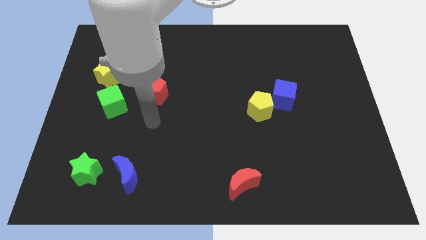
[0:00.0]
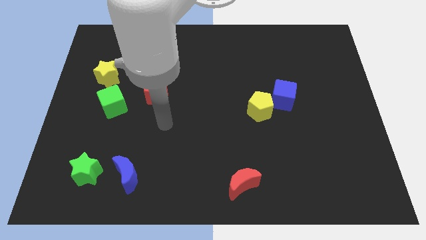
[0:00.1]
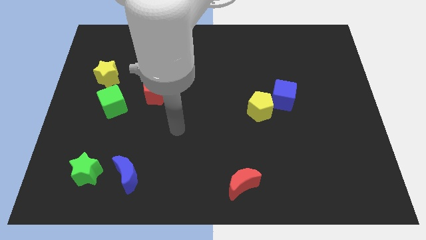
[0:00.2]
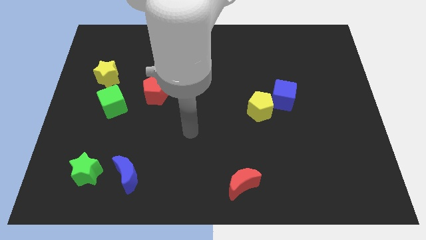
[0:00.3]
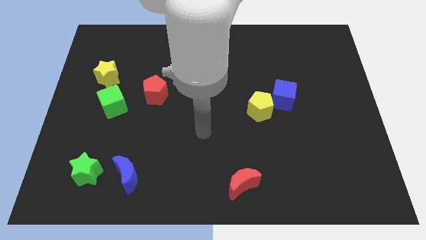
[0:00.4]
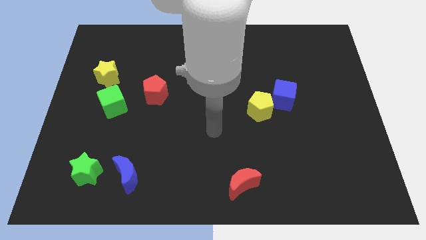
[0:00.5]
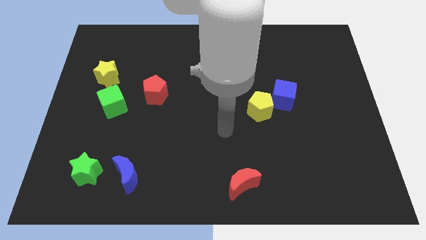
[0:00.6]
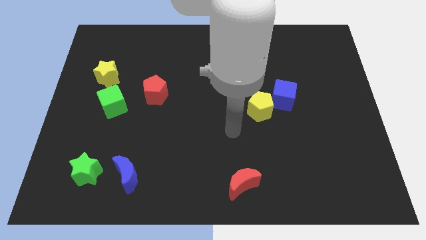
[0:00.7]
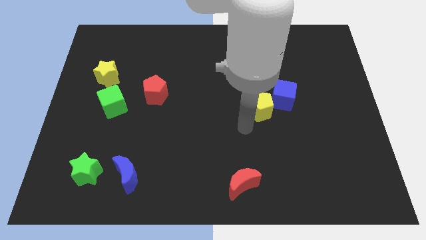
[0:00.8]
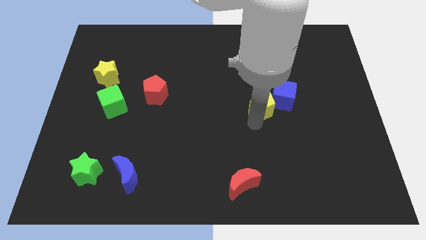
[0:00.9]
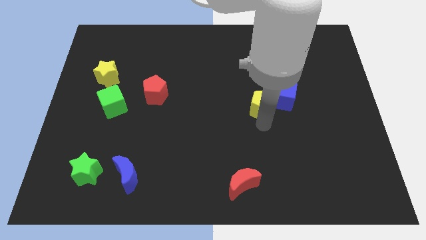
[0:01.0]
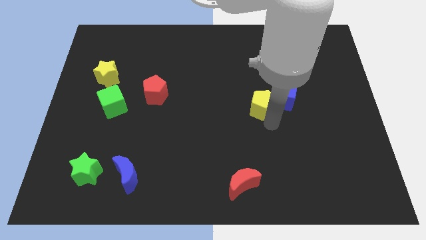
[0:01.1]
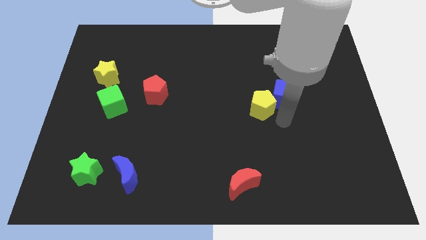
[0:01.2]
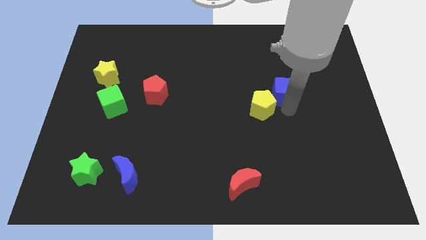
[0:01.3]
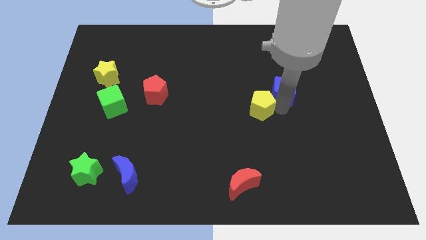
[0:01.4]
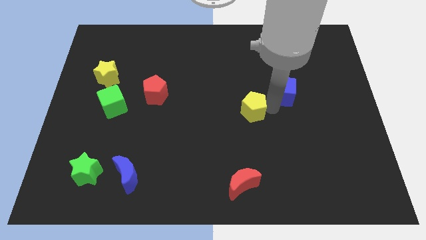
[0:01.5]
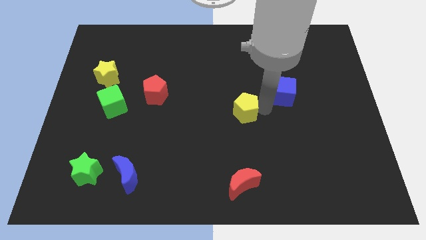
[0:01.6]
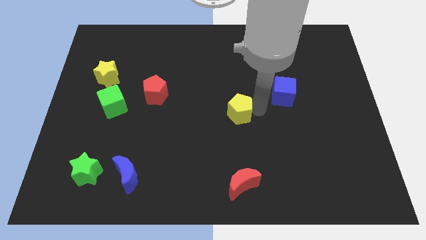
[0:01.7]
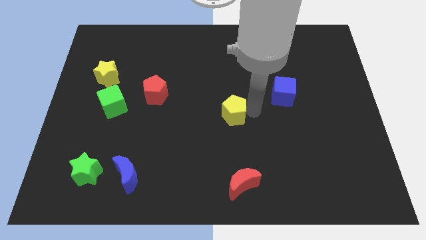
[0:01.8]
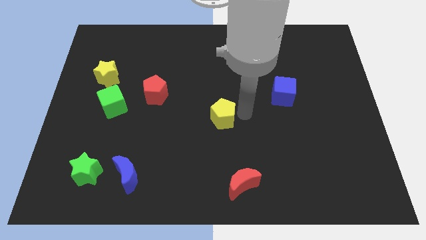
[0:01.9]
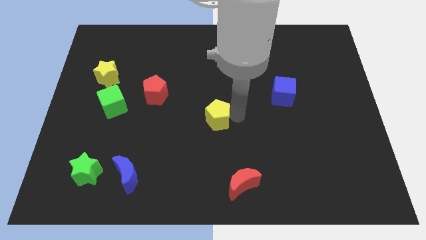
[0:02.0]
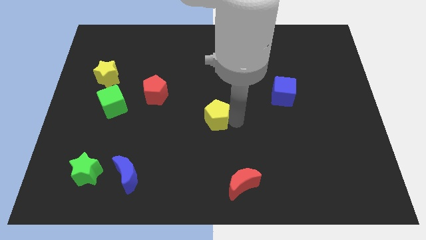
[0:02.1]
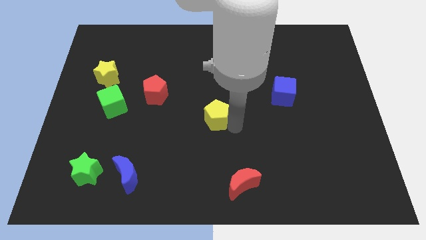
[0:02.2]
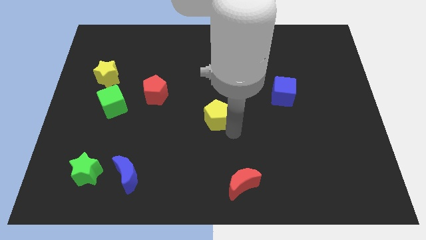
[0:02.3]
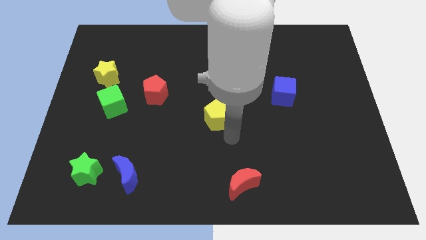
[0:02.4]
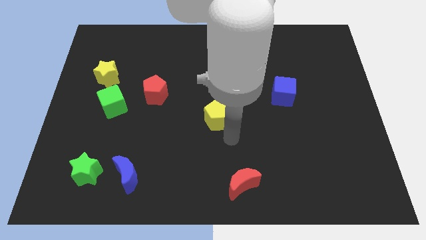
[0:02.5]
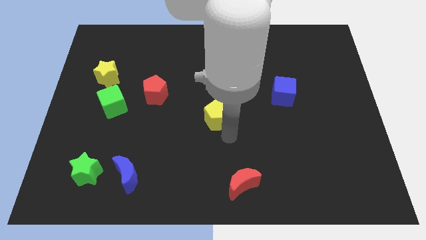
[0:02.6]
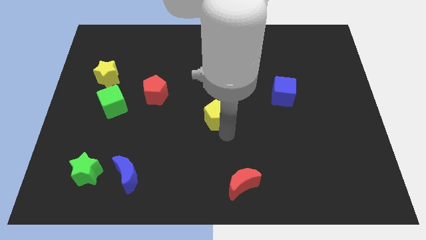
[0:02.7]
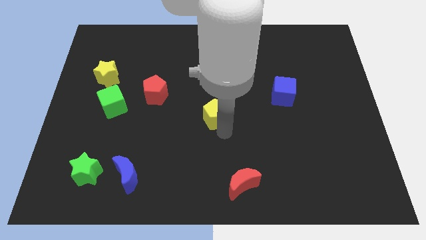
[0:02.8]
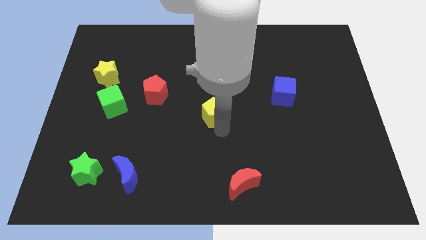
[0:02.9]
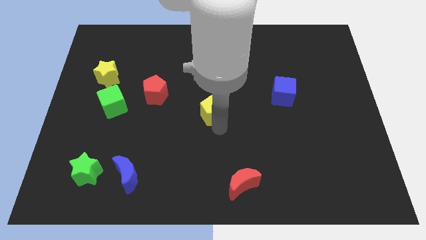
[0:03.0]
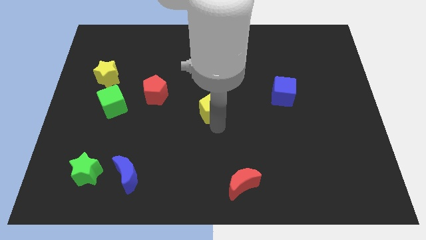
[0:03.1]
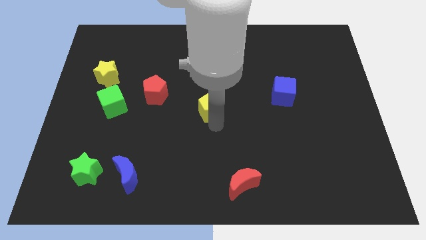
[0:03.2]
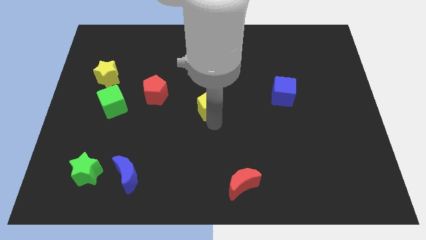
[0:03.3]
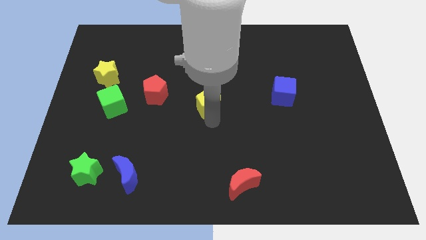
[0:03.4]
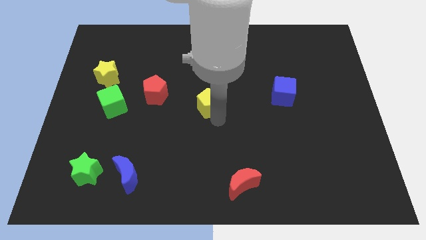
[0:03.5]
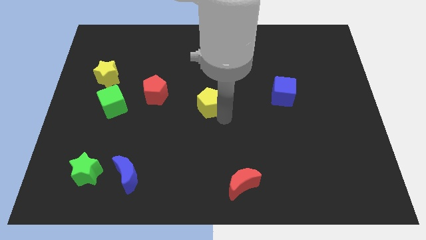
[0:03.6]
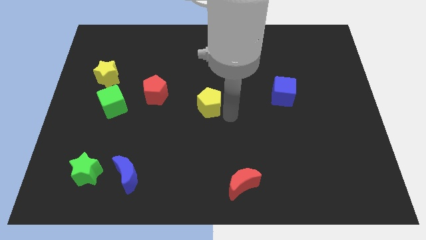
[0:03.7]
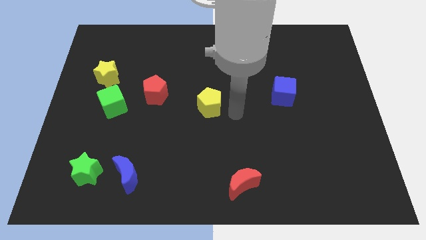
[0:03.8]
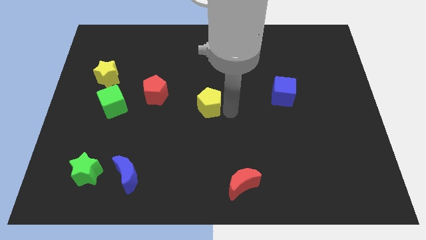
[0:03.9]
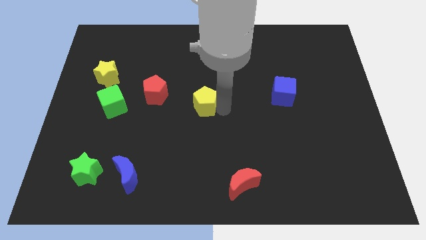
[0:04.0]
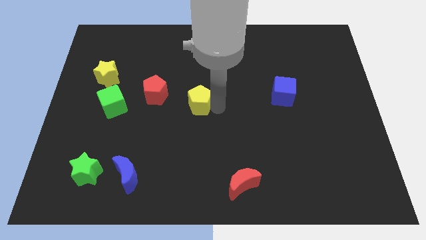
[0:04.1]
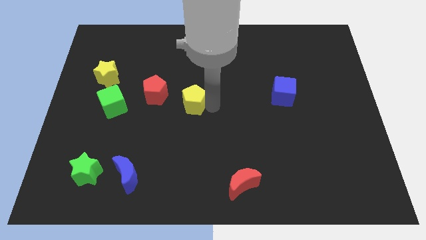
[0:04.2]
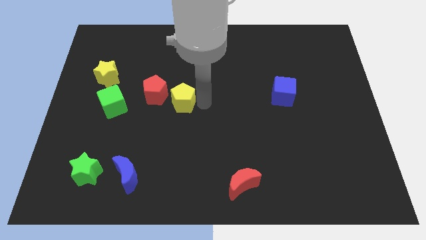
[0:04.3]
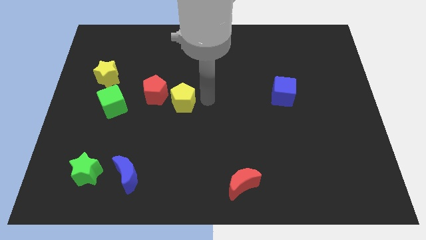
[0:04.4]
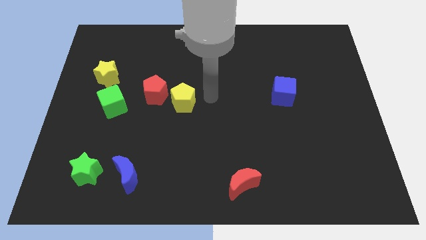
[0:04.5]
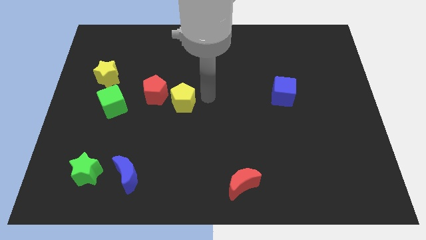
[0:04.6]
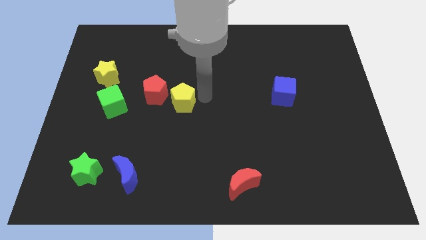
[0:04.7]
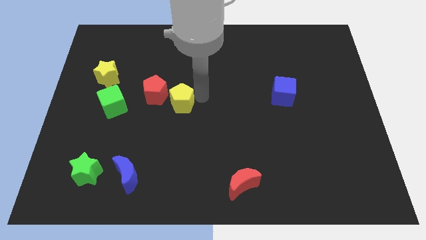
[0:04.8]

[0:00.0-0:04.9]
push the yellow pentagon right of the green cube

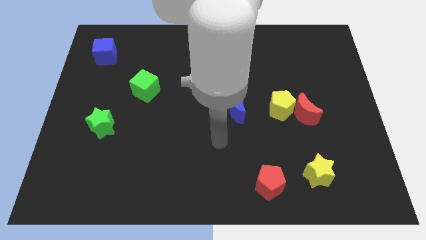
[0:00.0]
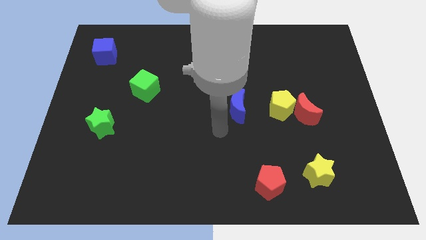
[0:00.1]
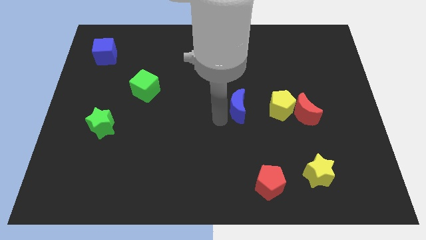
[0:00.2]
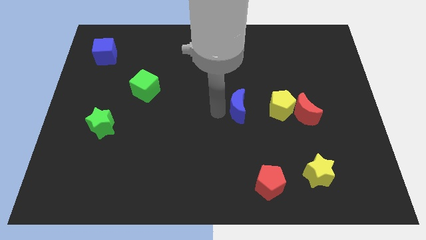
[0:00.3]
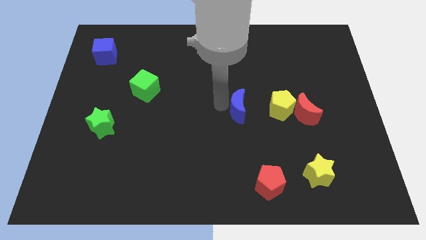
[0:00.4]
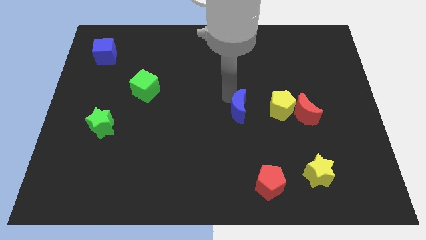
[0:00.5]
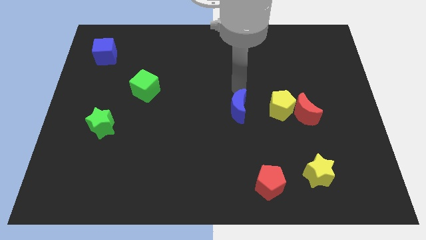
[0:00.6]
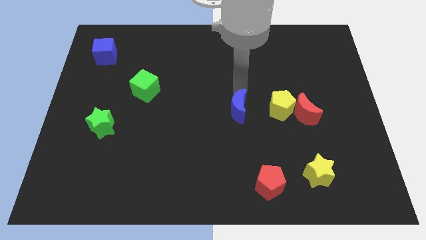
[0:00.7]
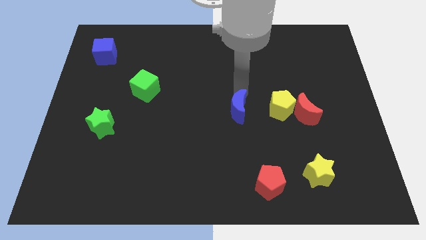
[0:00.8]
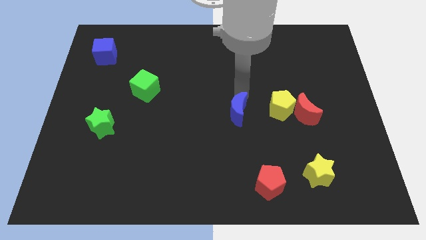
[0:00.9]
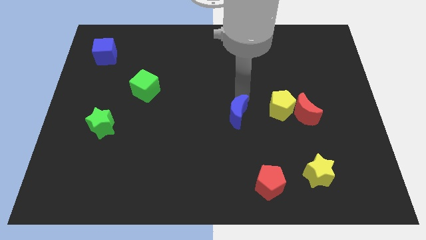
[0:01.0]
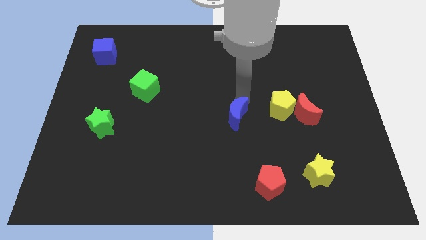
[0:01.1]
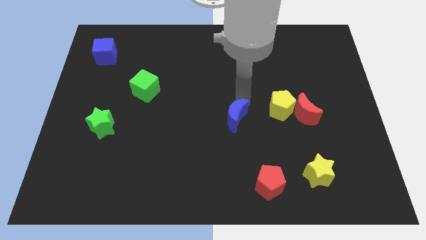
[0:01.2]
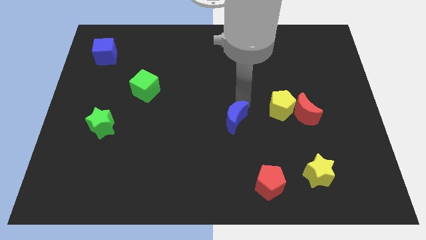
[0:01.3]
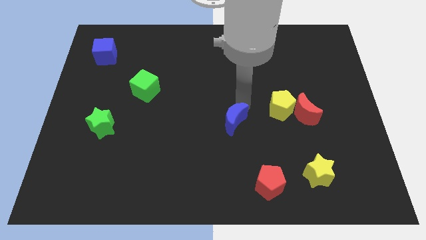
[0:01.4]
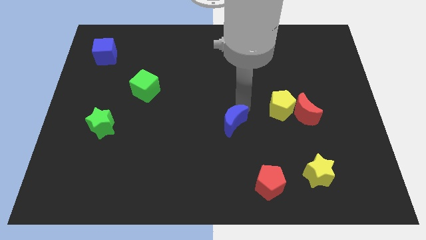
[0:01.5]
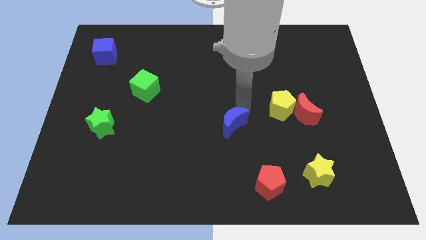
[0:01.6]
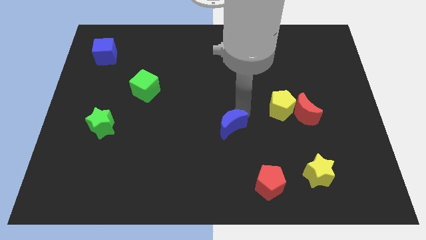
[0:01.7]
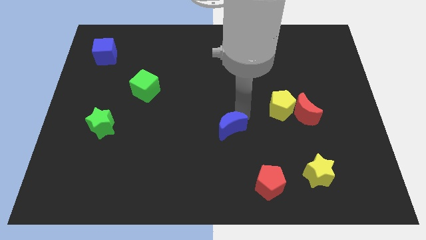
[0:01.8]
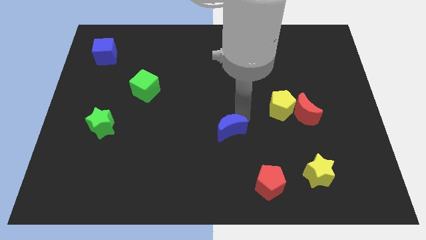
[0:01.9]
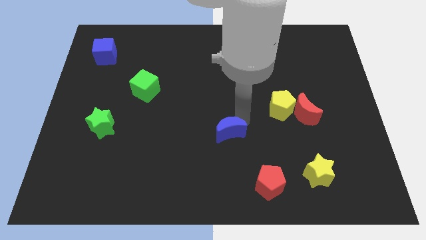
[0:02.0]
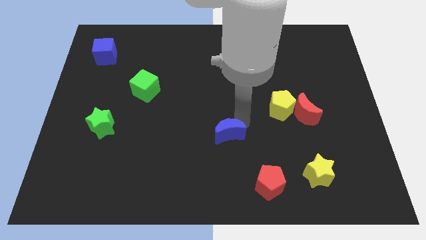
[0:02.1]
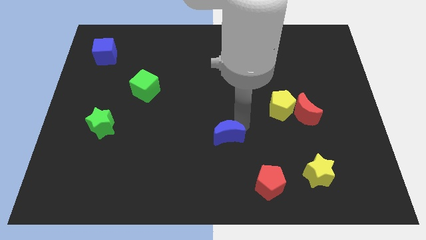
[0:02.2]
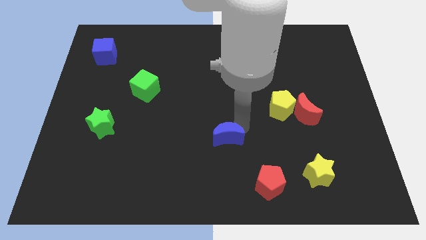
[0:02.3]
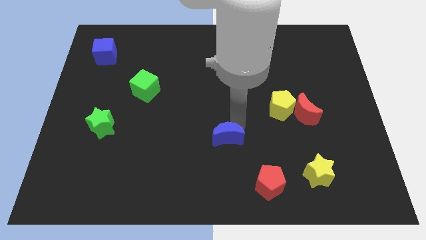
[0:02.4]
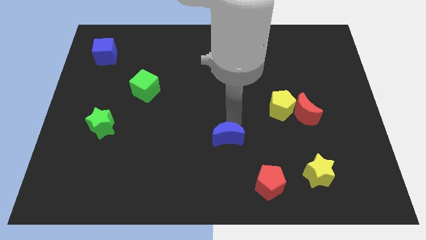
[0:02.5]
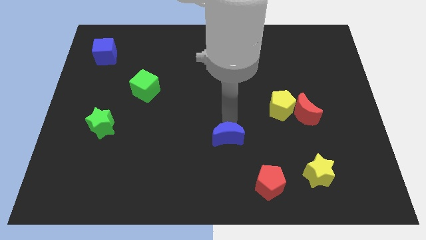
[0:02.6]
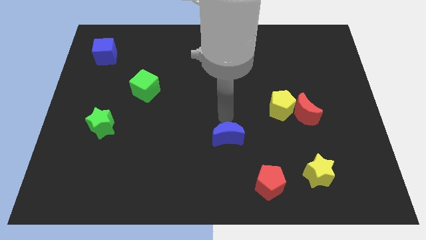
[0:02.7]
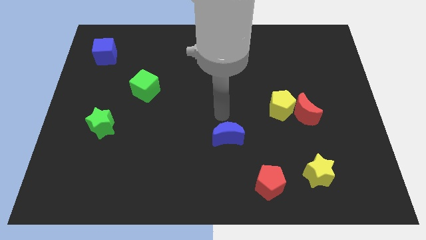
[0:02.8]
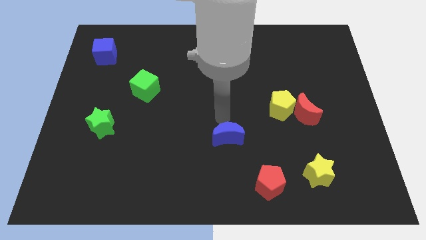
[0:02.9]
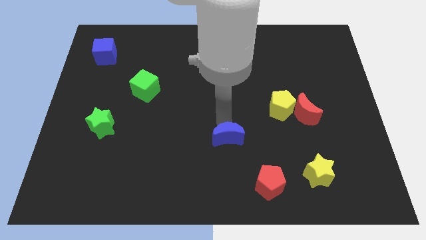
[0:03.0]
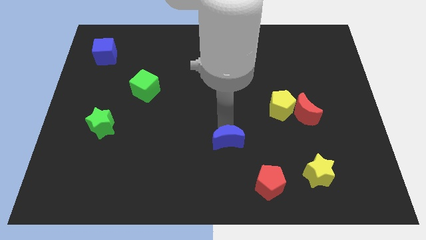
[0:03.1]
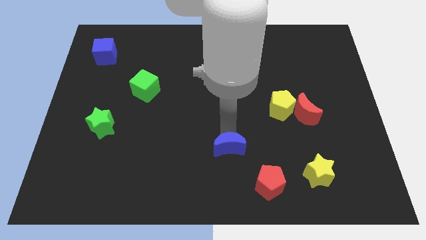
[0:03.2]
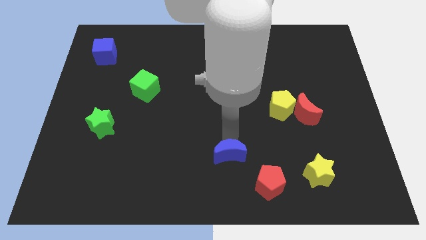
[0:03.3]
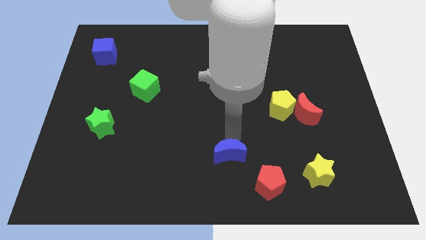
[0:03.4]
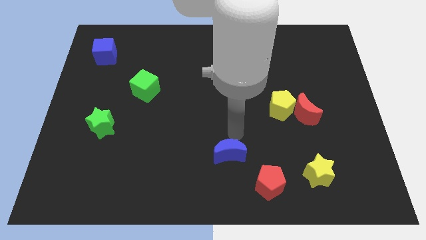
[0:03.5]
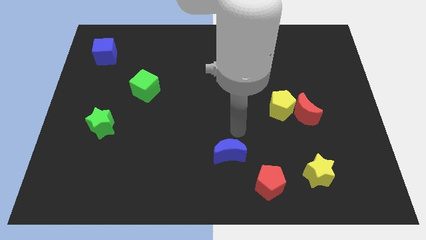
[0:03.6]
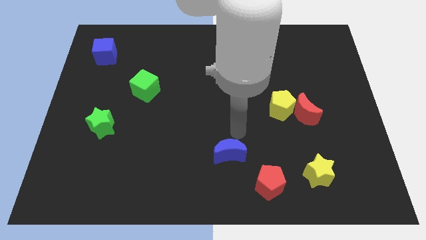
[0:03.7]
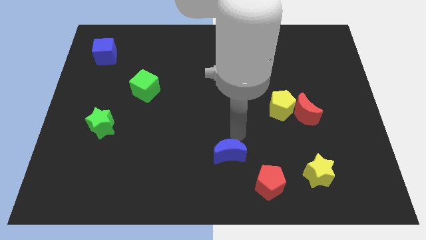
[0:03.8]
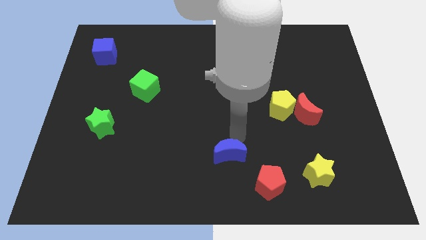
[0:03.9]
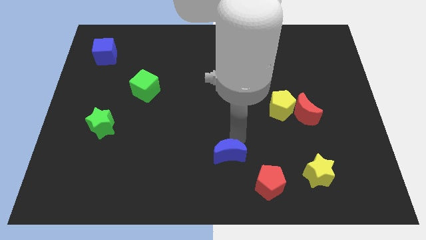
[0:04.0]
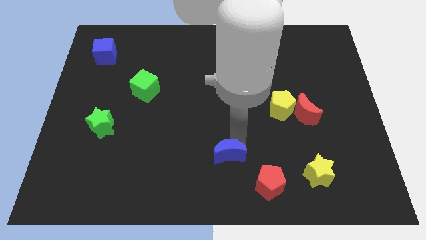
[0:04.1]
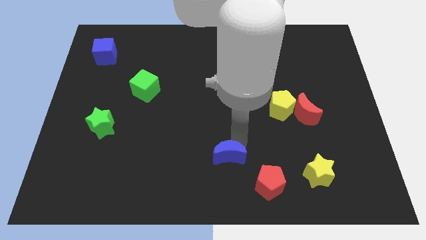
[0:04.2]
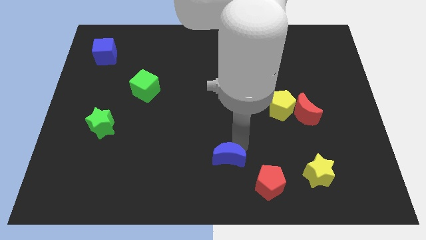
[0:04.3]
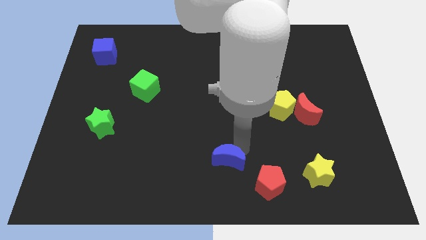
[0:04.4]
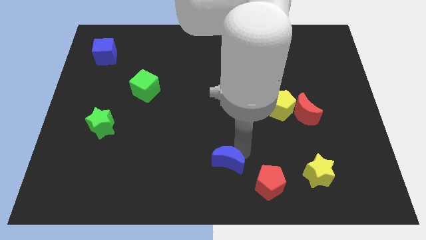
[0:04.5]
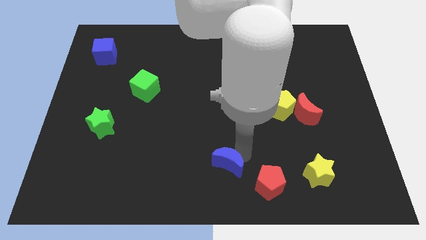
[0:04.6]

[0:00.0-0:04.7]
move the blue moon just left of the red pentagon
